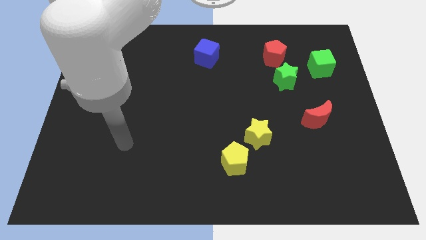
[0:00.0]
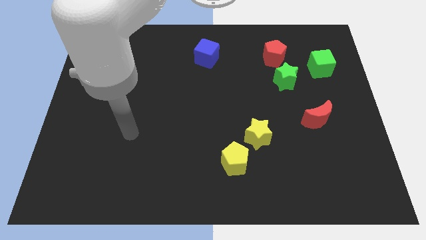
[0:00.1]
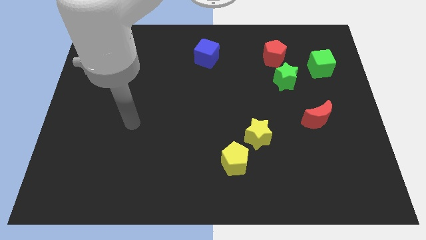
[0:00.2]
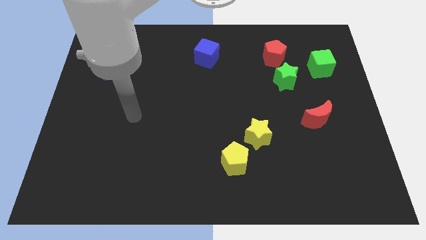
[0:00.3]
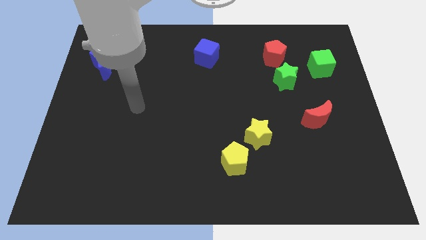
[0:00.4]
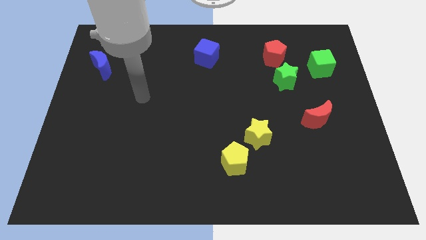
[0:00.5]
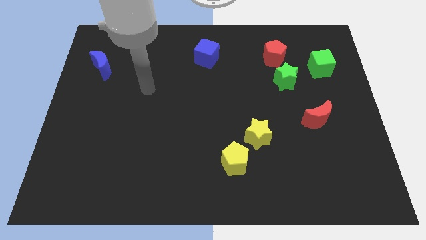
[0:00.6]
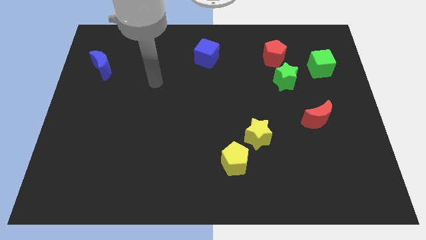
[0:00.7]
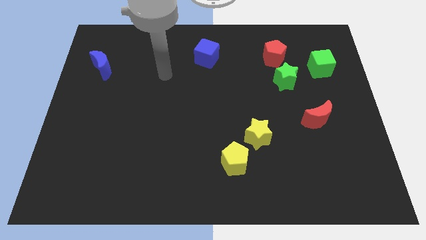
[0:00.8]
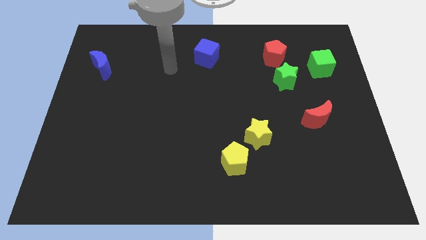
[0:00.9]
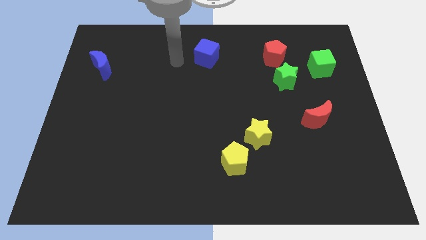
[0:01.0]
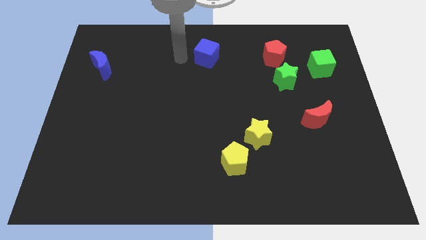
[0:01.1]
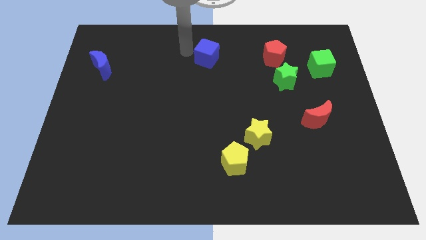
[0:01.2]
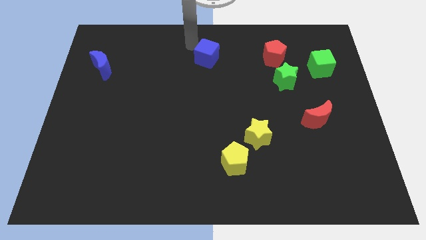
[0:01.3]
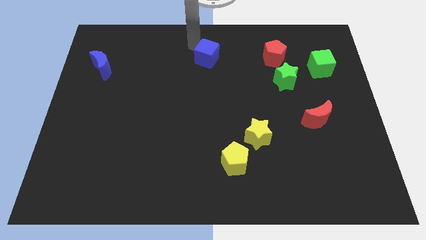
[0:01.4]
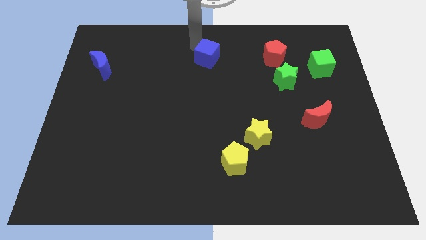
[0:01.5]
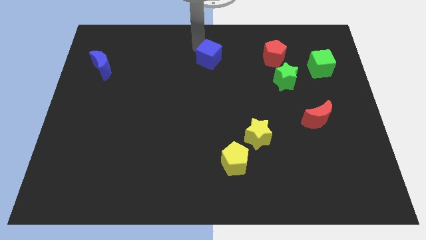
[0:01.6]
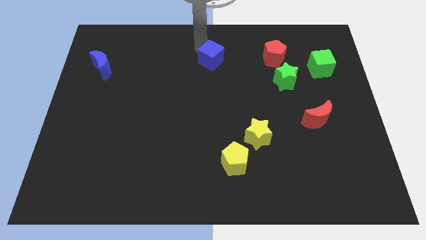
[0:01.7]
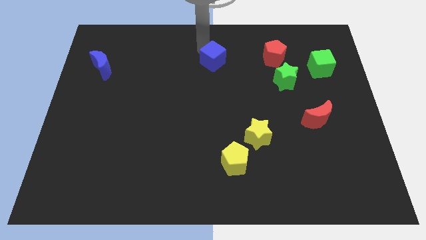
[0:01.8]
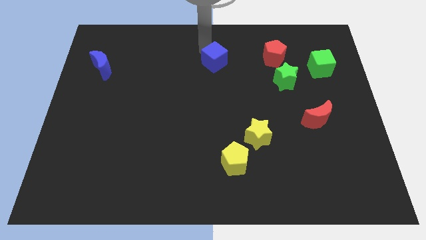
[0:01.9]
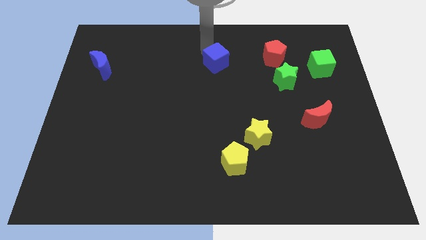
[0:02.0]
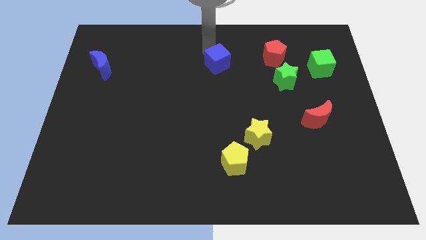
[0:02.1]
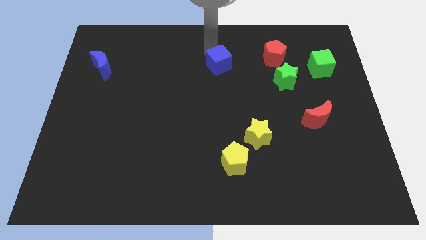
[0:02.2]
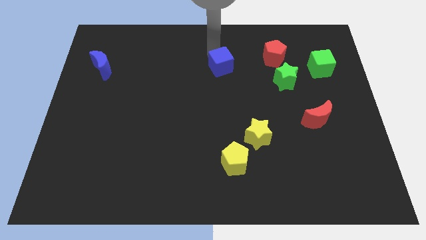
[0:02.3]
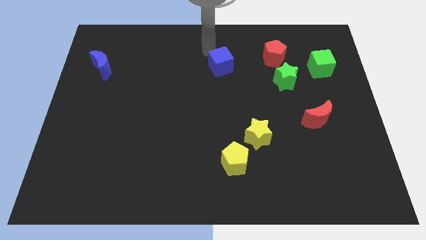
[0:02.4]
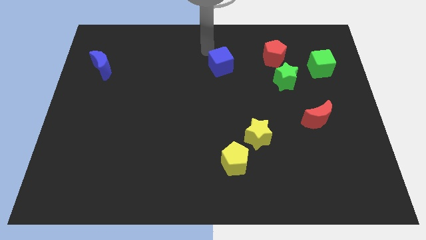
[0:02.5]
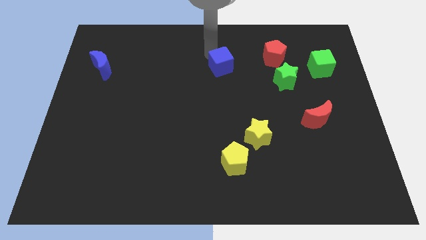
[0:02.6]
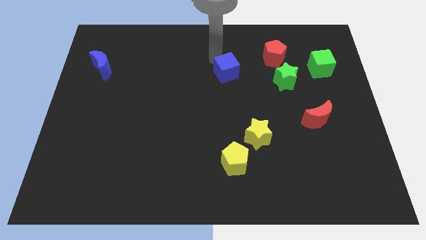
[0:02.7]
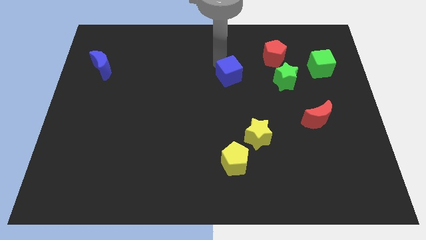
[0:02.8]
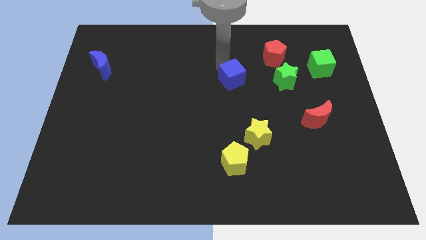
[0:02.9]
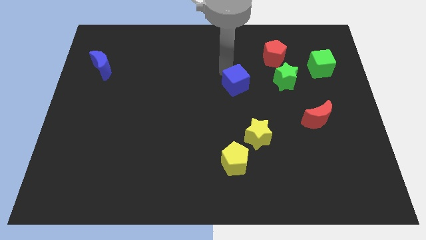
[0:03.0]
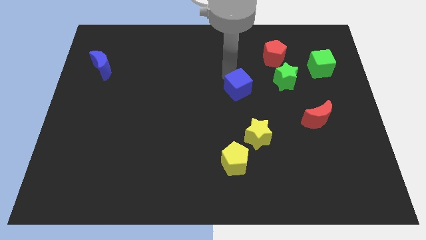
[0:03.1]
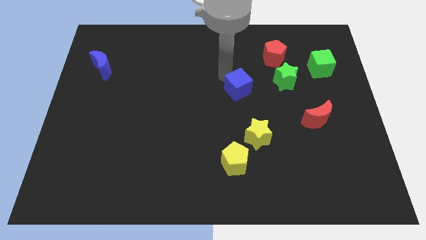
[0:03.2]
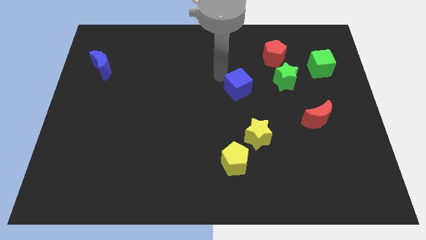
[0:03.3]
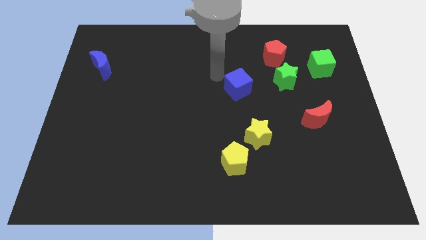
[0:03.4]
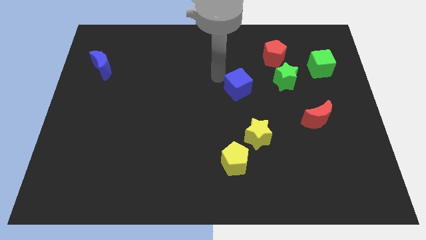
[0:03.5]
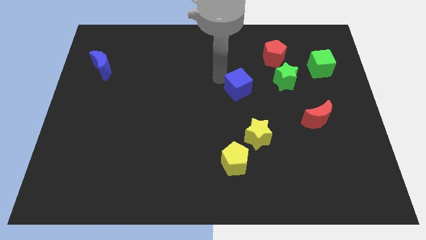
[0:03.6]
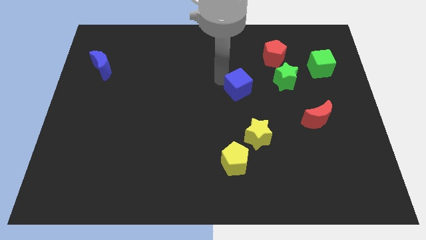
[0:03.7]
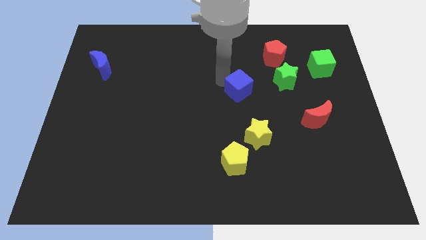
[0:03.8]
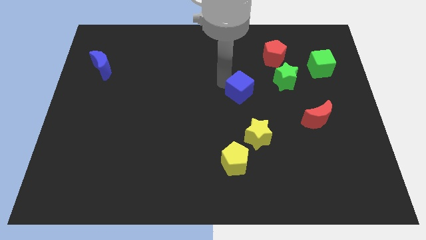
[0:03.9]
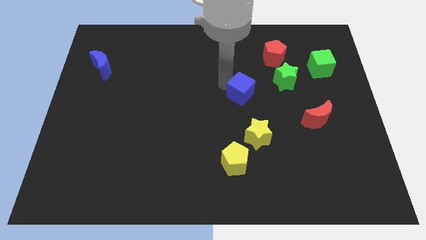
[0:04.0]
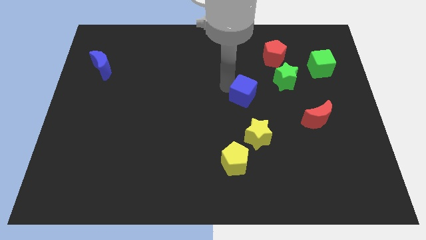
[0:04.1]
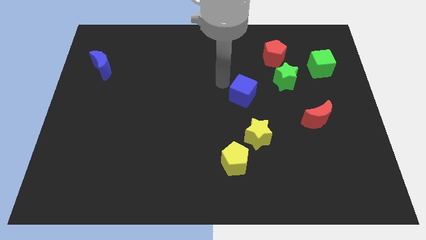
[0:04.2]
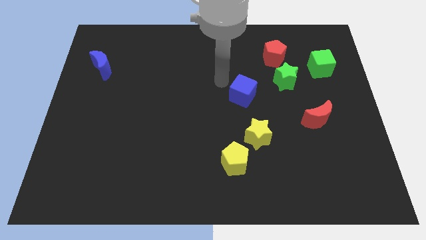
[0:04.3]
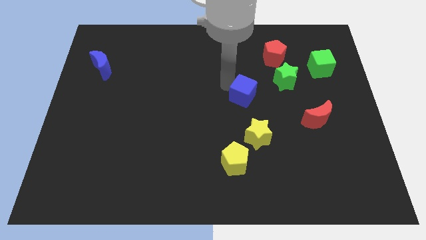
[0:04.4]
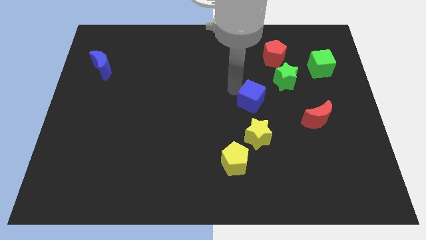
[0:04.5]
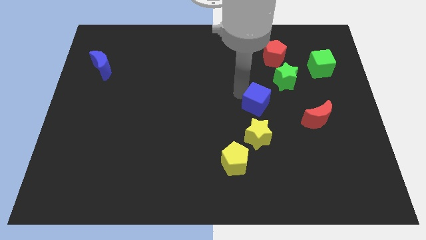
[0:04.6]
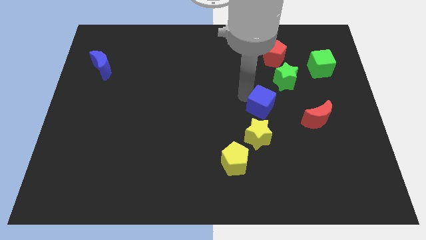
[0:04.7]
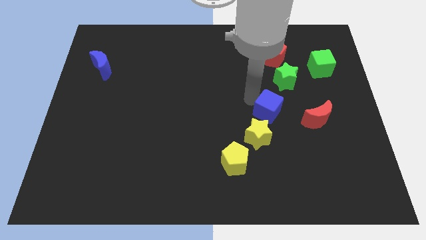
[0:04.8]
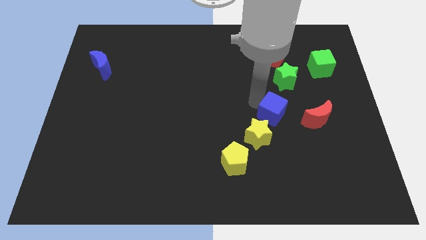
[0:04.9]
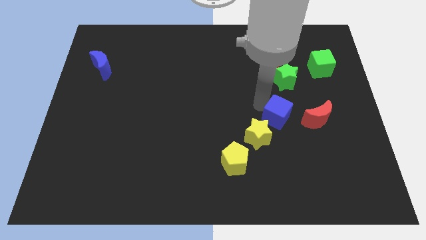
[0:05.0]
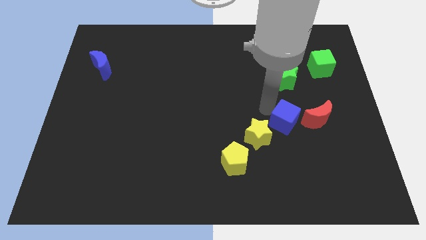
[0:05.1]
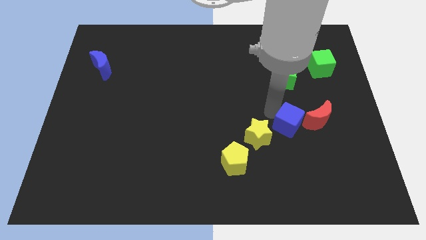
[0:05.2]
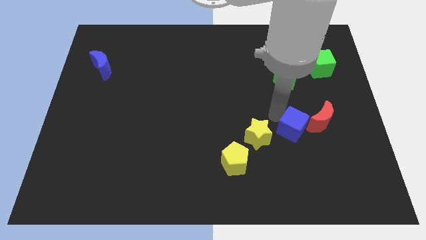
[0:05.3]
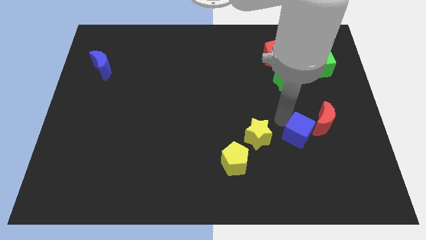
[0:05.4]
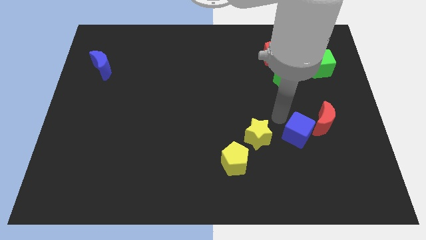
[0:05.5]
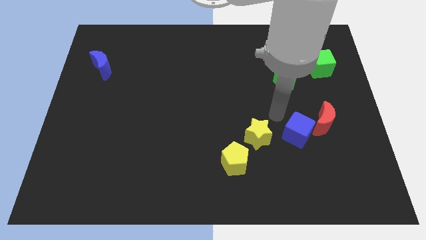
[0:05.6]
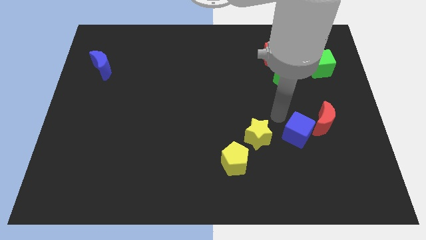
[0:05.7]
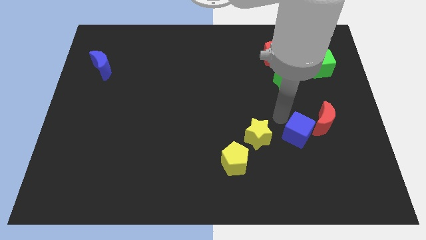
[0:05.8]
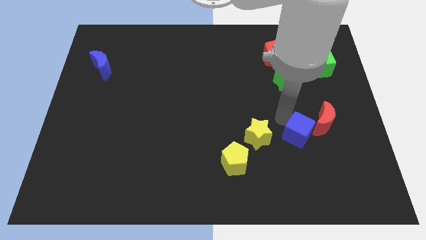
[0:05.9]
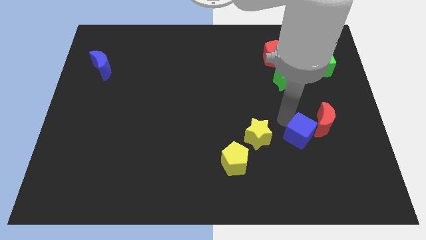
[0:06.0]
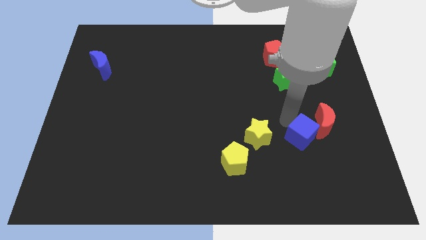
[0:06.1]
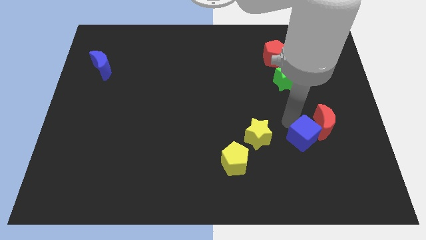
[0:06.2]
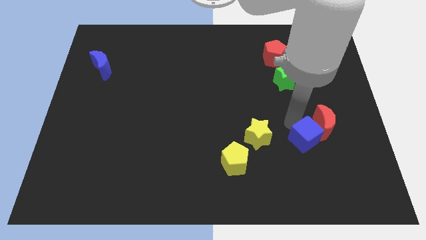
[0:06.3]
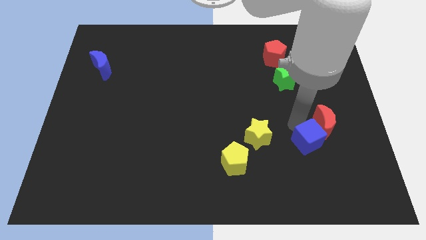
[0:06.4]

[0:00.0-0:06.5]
slide the blue cube to the bottom side of the red moon
